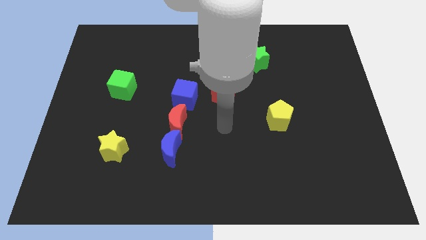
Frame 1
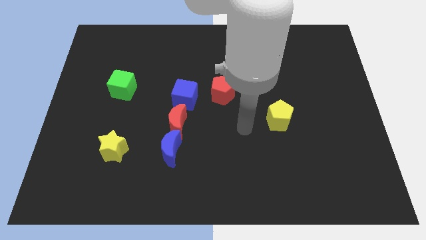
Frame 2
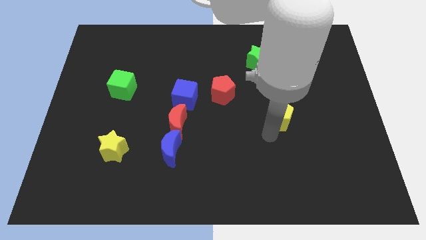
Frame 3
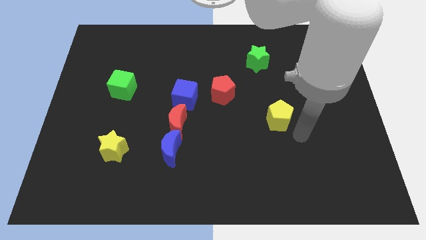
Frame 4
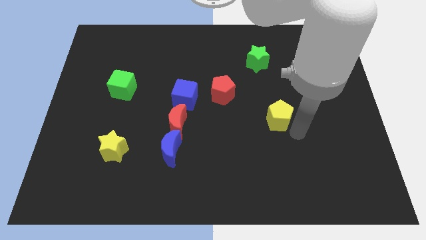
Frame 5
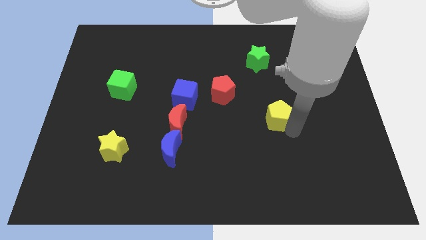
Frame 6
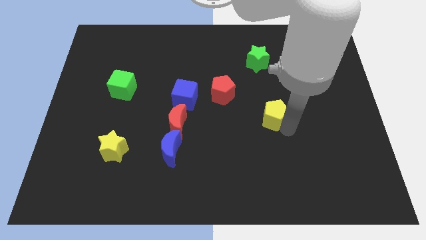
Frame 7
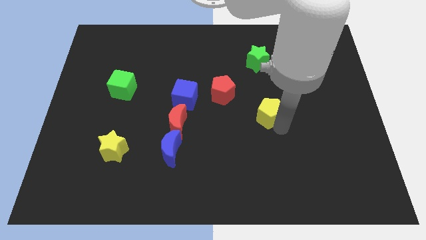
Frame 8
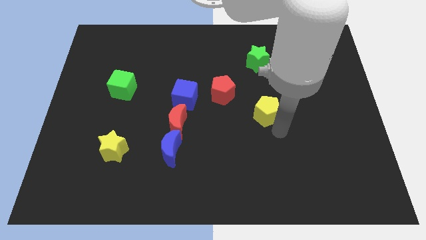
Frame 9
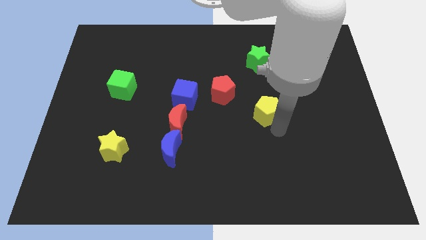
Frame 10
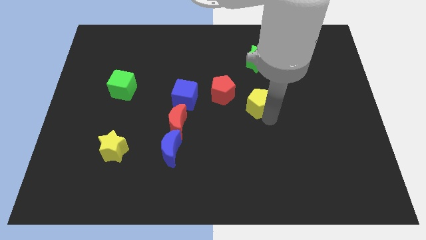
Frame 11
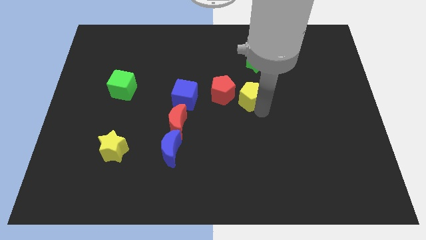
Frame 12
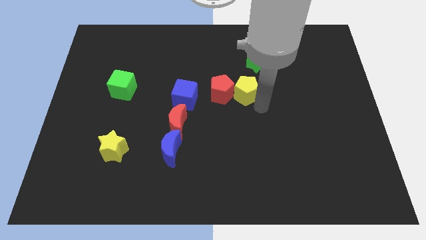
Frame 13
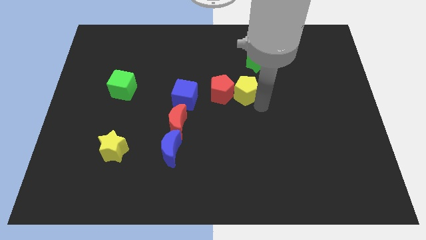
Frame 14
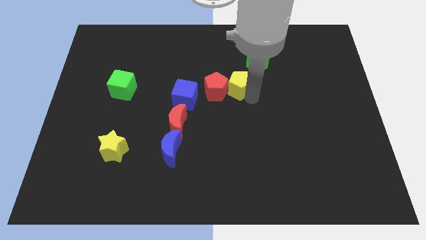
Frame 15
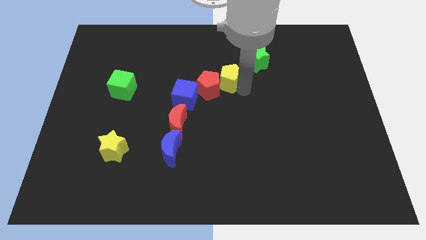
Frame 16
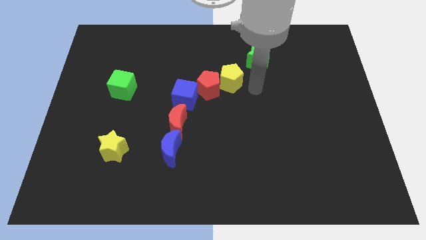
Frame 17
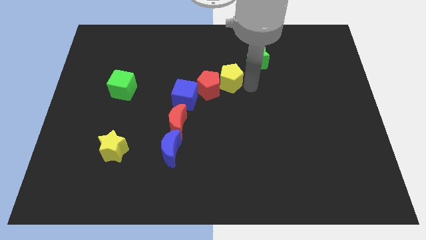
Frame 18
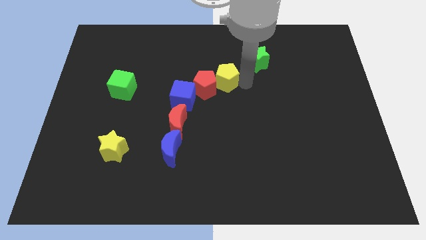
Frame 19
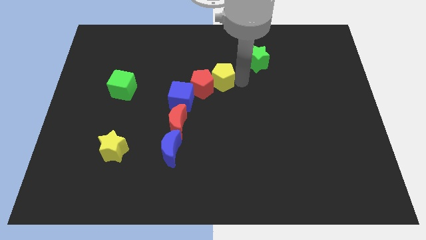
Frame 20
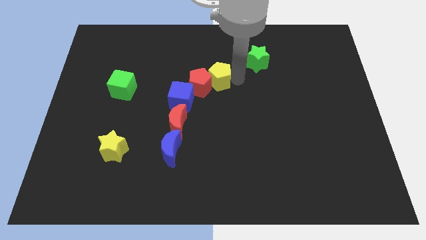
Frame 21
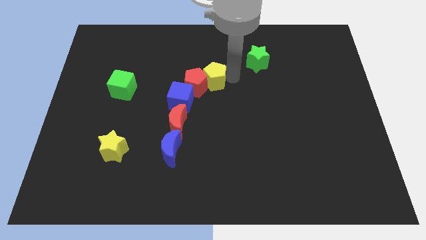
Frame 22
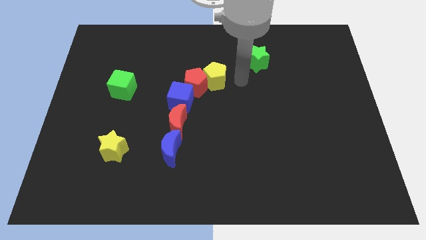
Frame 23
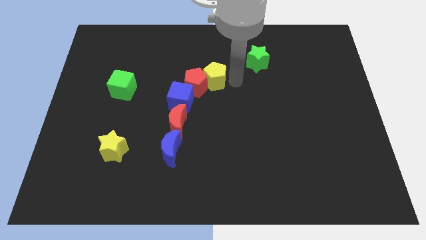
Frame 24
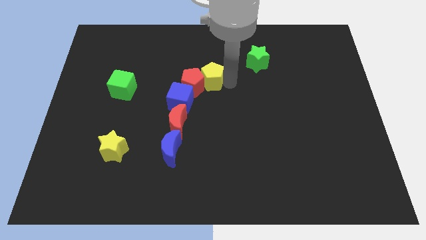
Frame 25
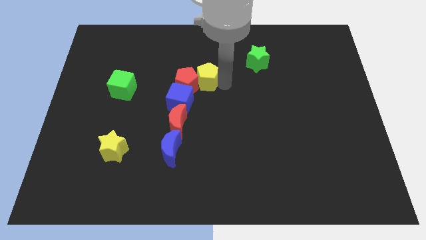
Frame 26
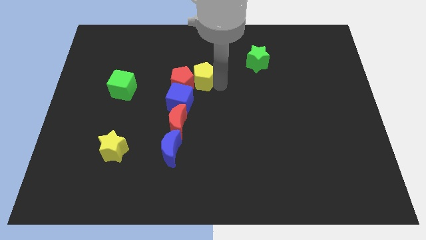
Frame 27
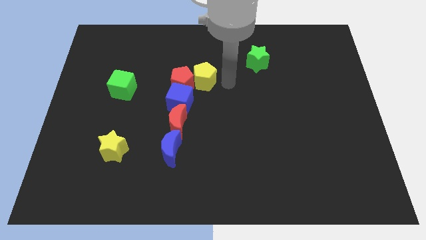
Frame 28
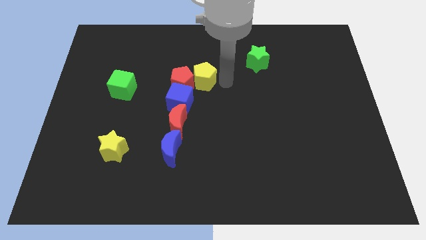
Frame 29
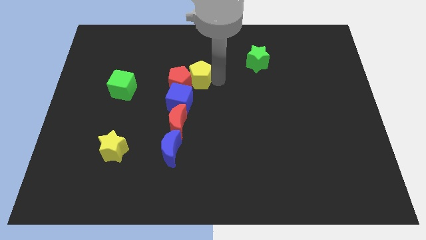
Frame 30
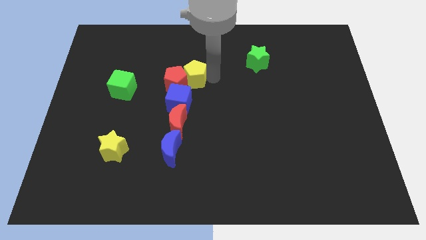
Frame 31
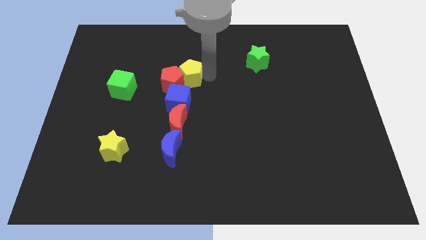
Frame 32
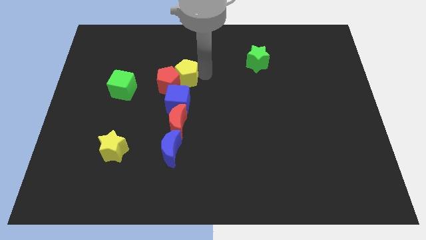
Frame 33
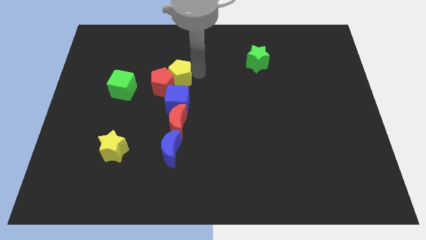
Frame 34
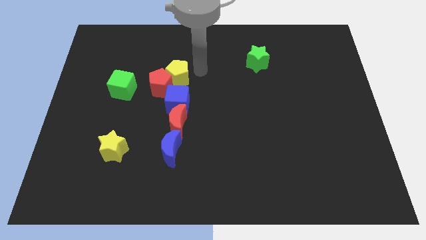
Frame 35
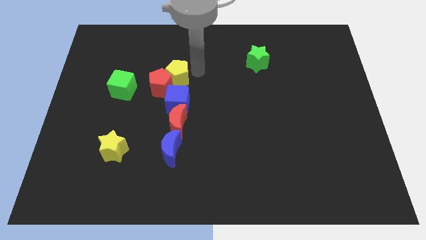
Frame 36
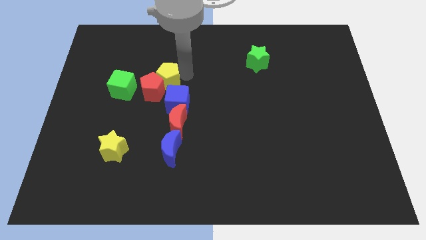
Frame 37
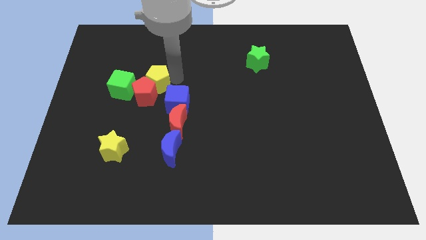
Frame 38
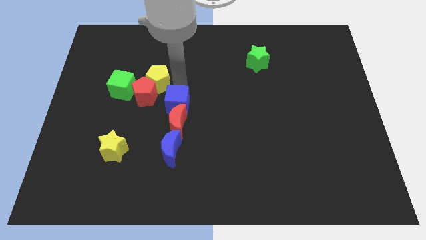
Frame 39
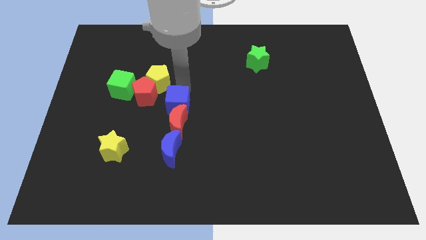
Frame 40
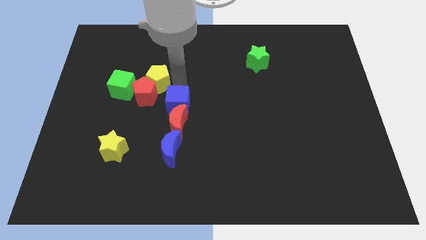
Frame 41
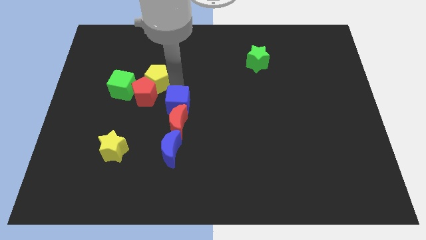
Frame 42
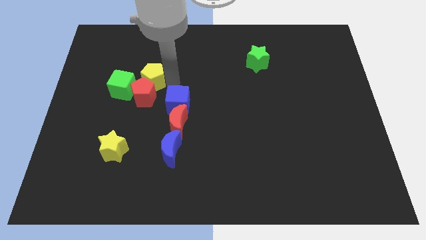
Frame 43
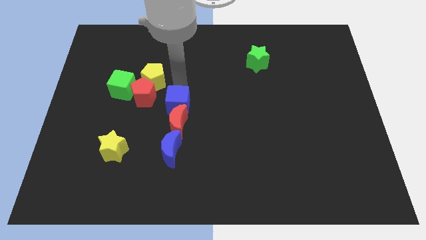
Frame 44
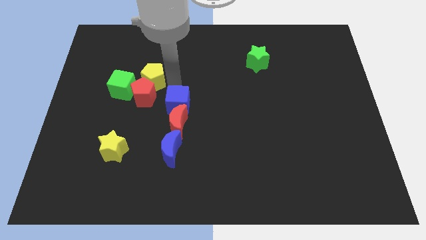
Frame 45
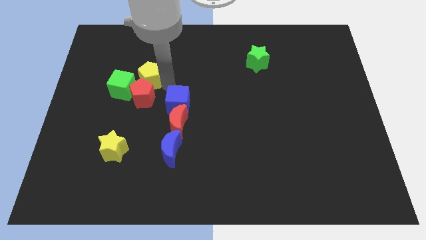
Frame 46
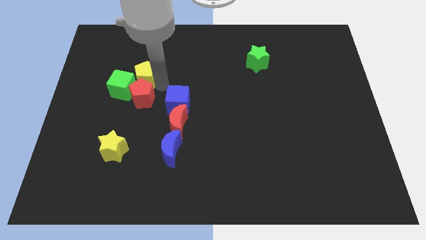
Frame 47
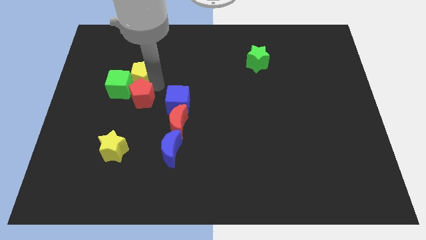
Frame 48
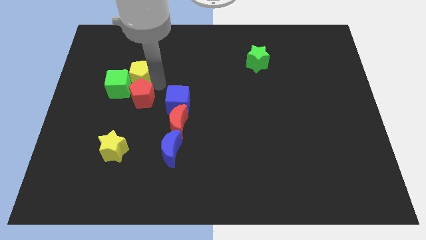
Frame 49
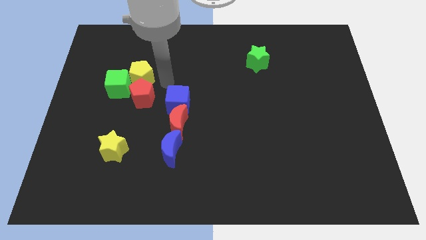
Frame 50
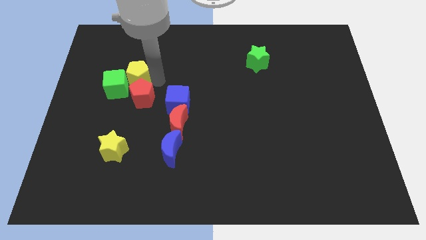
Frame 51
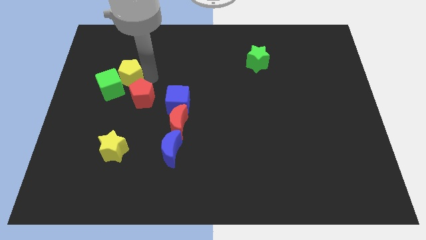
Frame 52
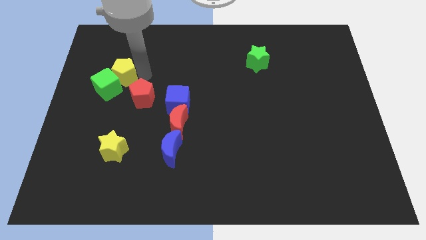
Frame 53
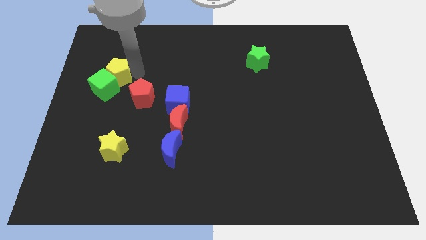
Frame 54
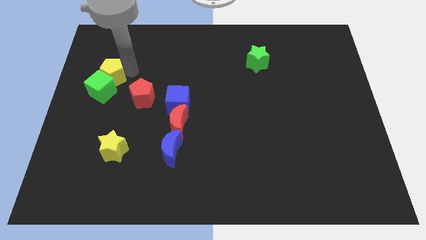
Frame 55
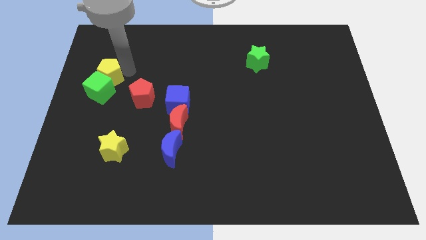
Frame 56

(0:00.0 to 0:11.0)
move the yellow pentagon to the top left side of the green cube

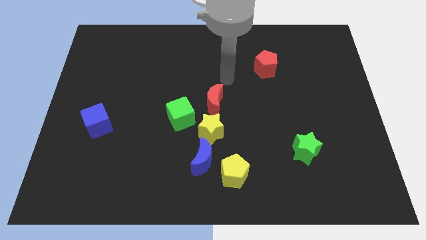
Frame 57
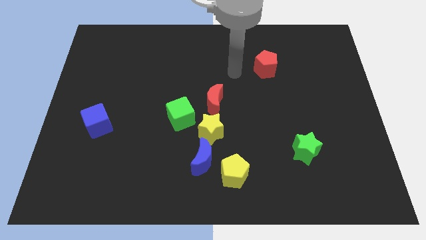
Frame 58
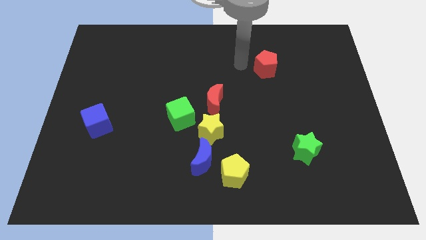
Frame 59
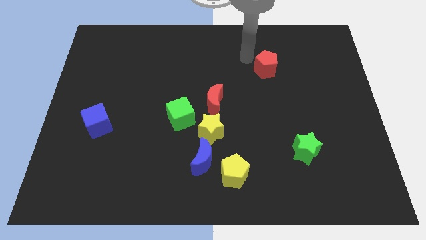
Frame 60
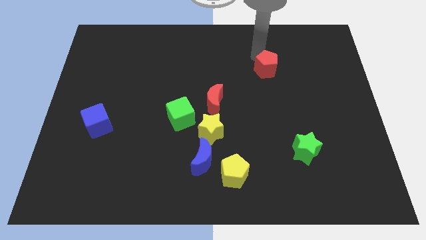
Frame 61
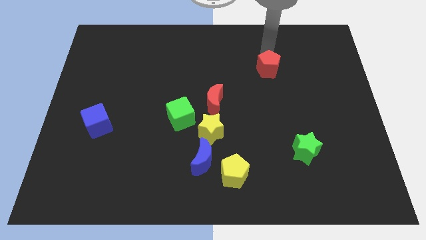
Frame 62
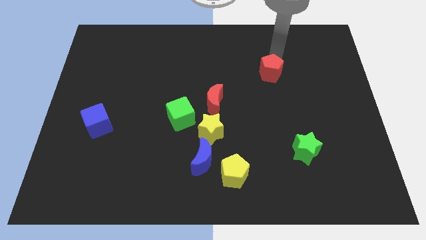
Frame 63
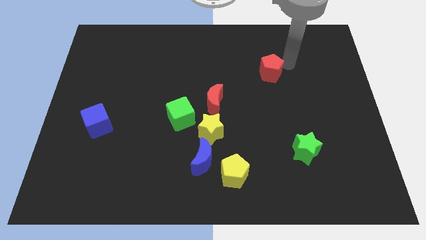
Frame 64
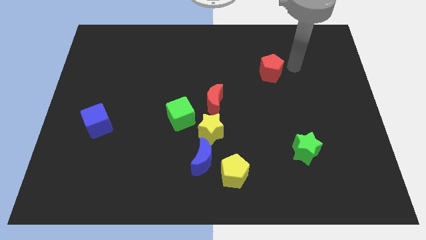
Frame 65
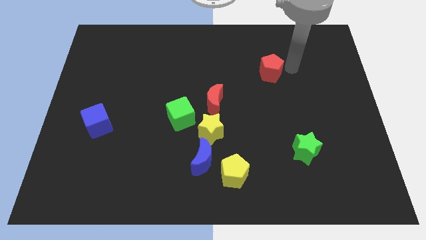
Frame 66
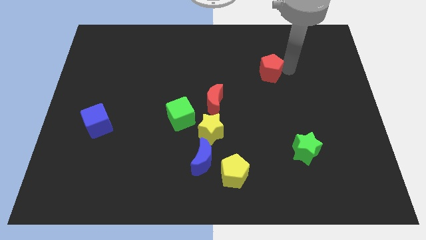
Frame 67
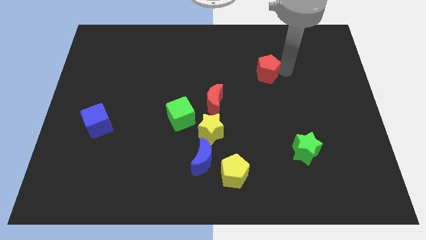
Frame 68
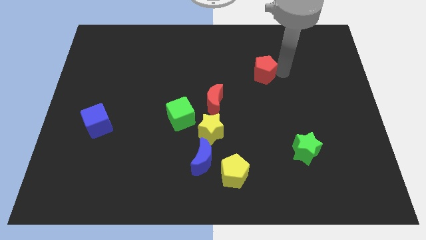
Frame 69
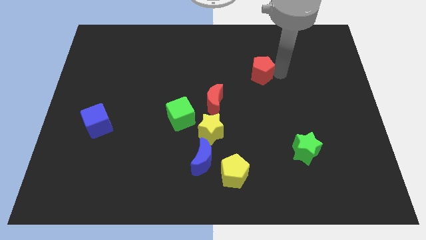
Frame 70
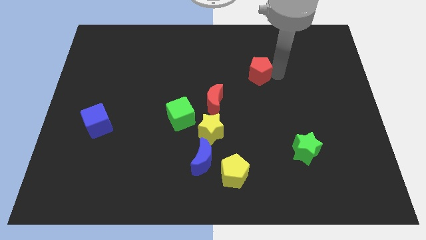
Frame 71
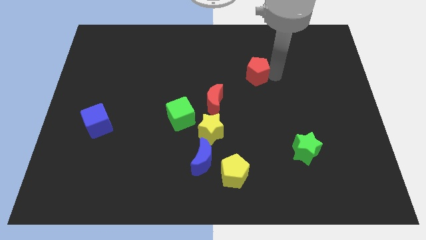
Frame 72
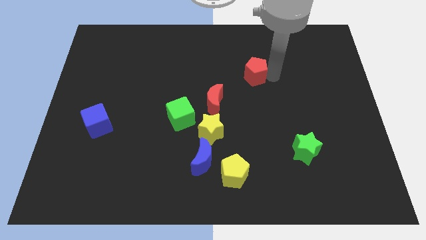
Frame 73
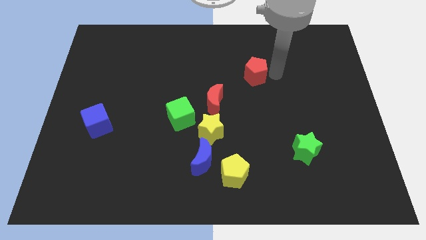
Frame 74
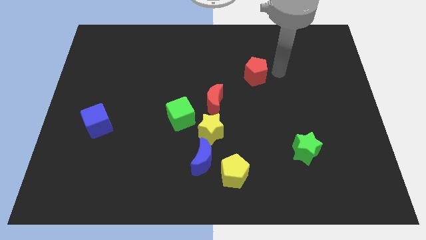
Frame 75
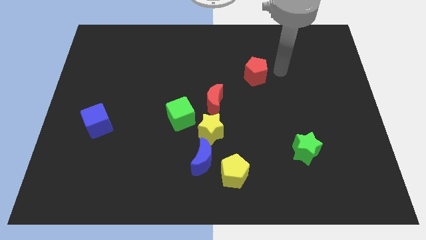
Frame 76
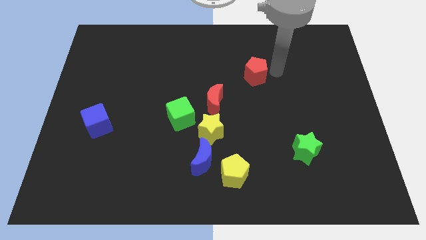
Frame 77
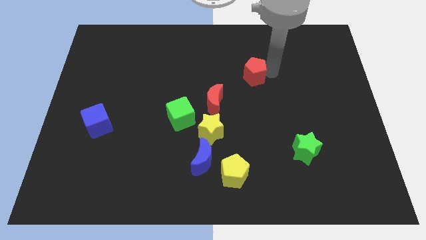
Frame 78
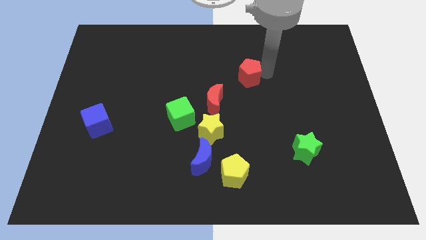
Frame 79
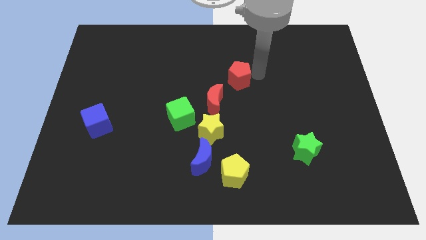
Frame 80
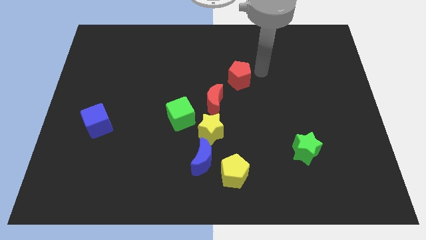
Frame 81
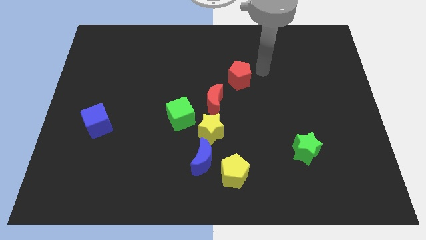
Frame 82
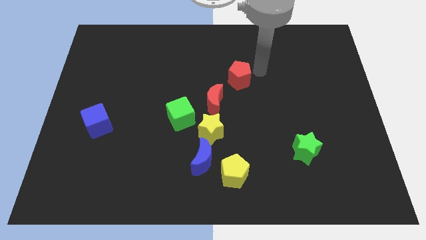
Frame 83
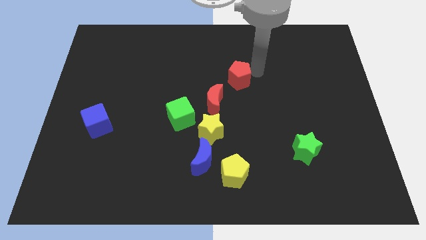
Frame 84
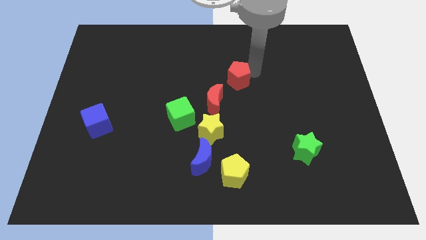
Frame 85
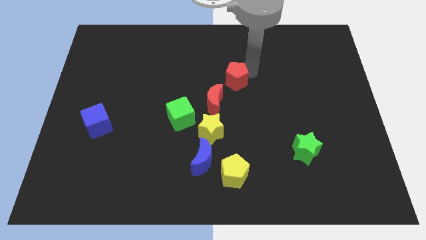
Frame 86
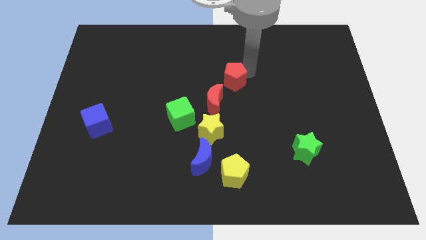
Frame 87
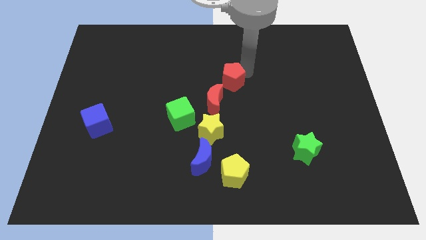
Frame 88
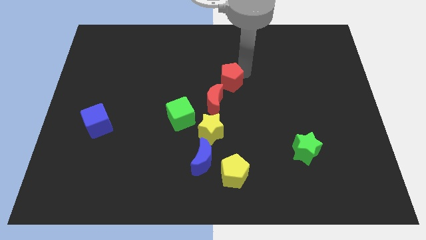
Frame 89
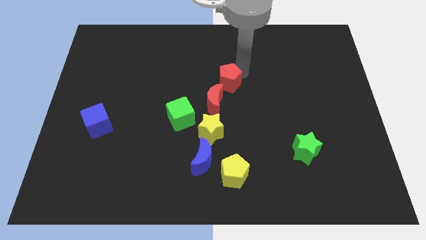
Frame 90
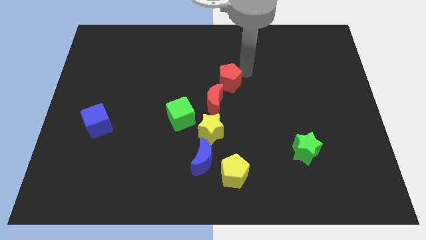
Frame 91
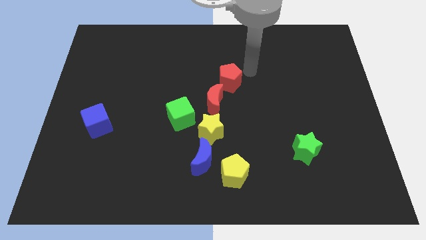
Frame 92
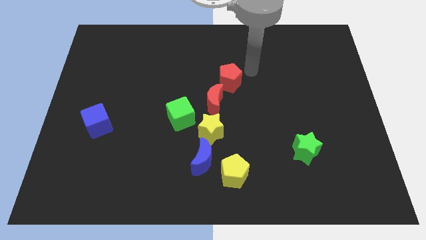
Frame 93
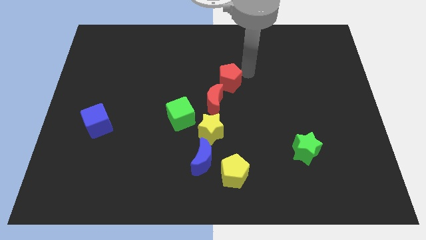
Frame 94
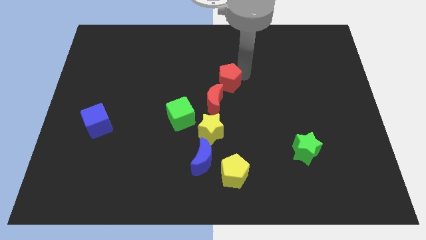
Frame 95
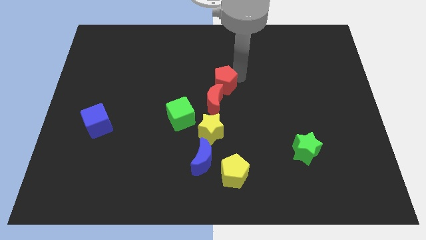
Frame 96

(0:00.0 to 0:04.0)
push the red pentagon to the top of the yellow star
